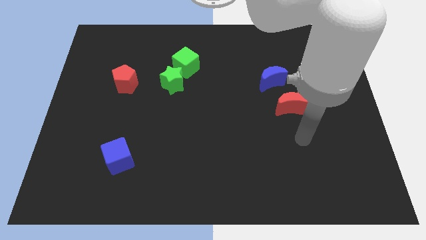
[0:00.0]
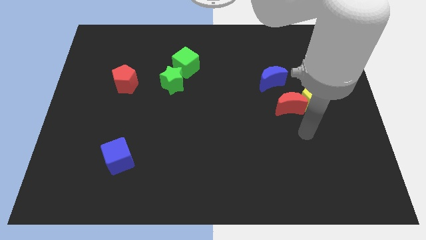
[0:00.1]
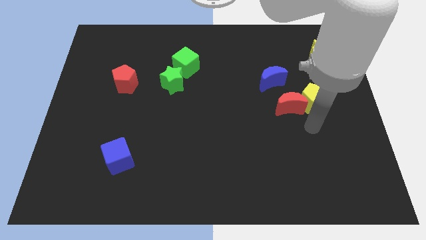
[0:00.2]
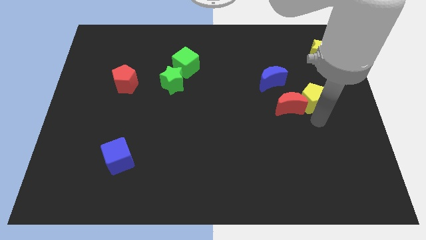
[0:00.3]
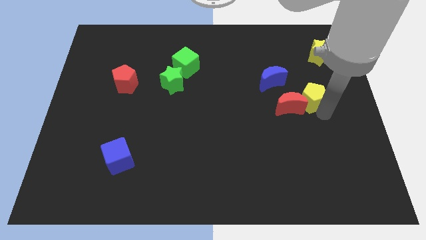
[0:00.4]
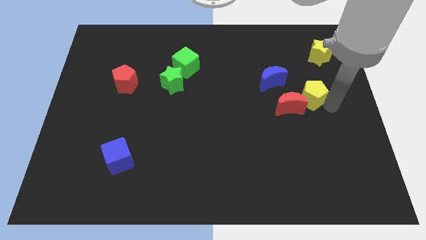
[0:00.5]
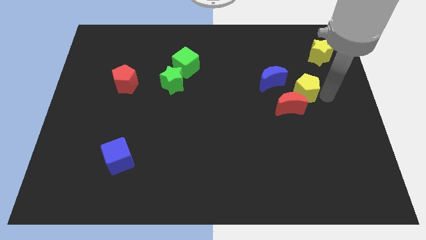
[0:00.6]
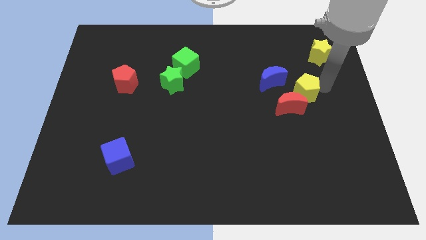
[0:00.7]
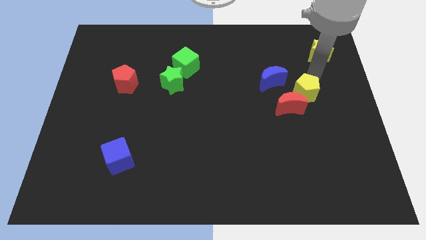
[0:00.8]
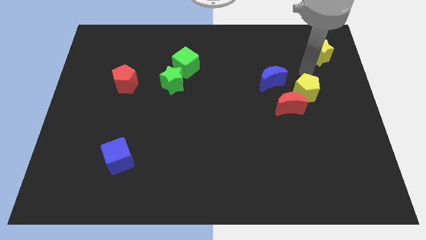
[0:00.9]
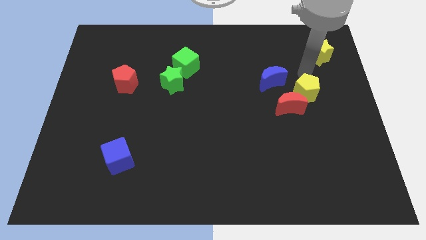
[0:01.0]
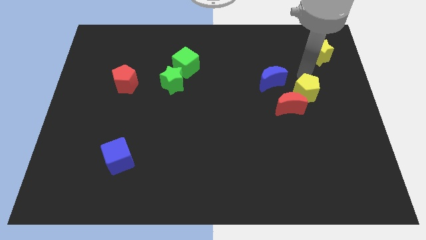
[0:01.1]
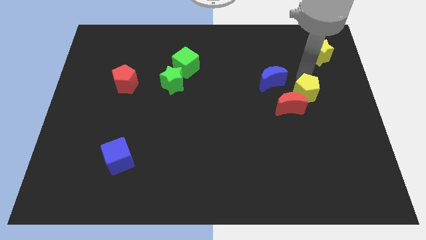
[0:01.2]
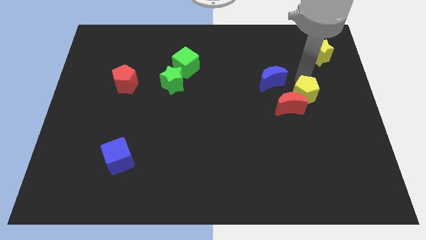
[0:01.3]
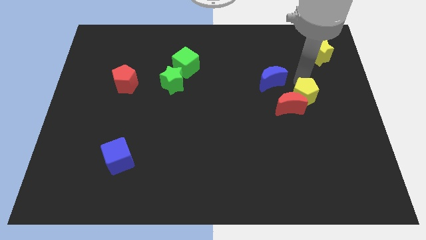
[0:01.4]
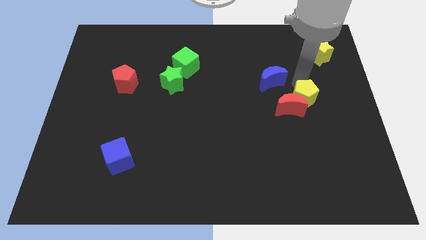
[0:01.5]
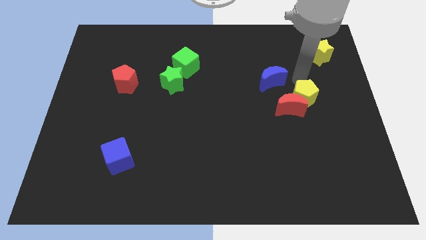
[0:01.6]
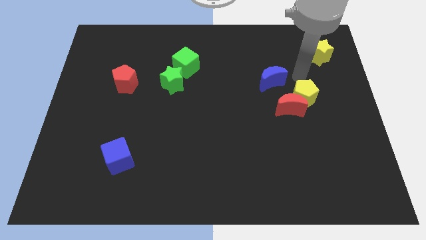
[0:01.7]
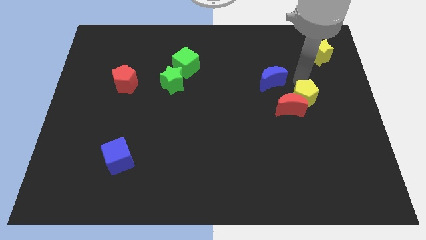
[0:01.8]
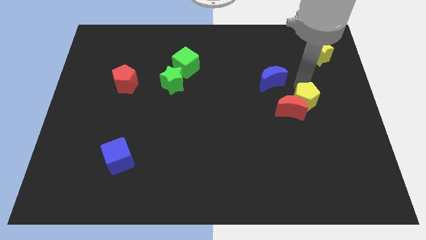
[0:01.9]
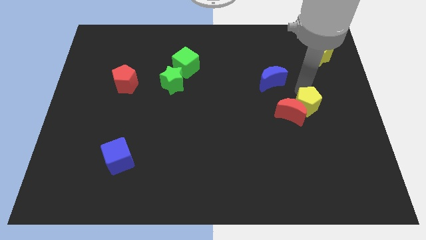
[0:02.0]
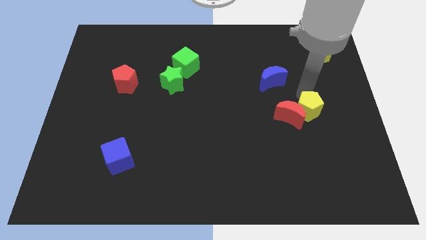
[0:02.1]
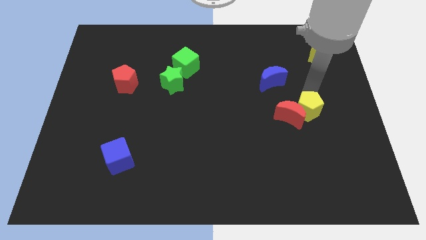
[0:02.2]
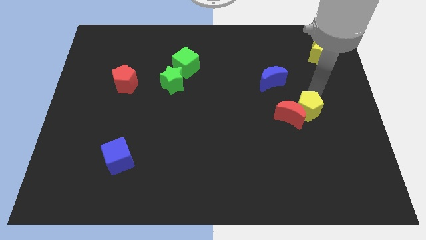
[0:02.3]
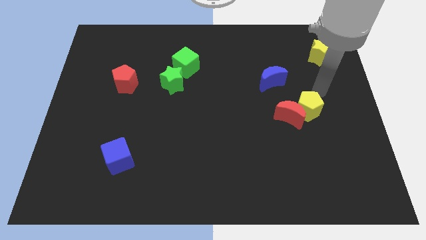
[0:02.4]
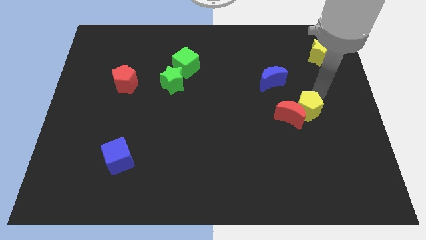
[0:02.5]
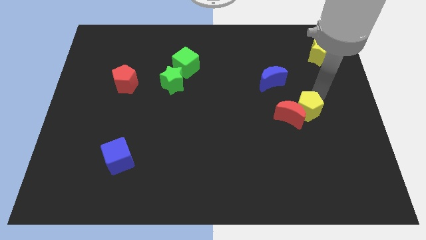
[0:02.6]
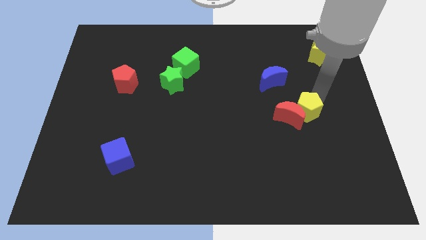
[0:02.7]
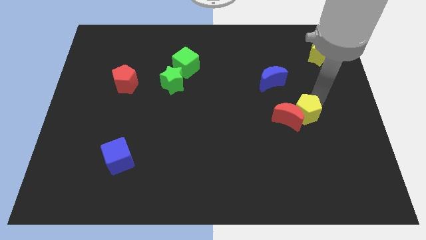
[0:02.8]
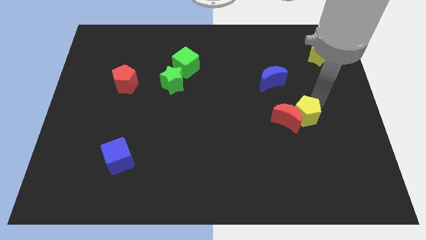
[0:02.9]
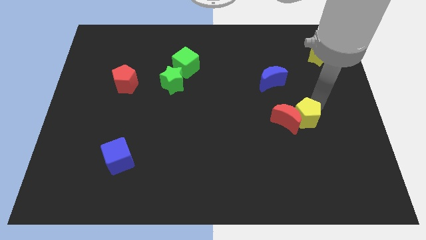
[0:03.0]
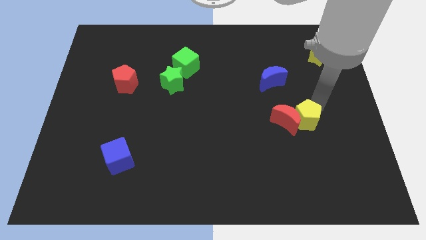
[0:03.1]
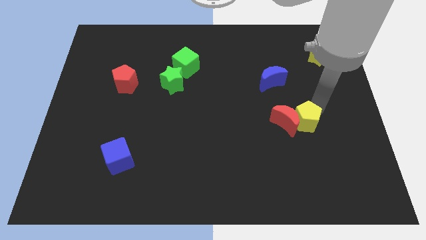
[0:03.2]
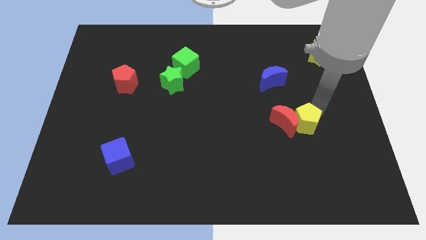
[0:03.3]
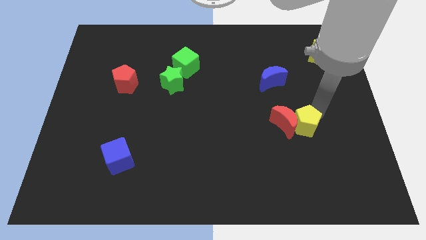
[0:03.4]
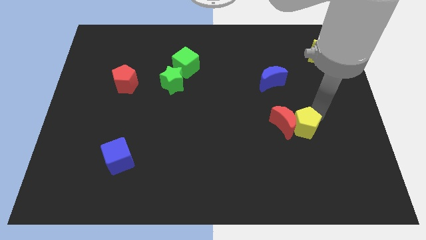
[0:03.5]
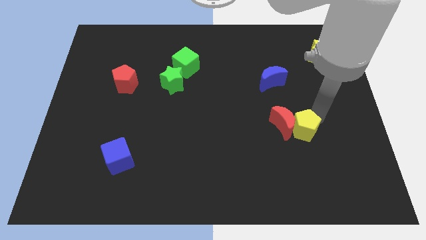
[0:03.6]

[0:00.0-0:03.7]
slide the yellow pentagon diagonally down and to the left a bit

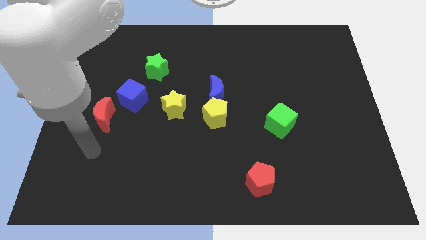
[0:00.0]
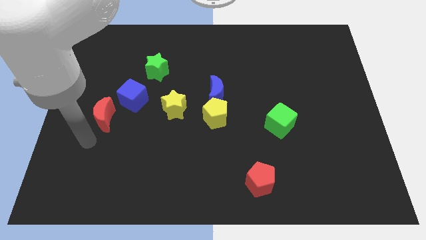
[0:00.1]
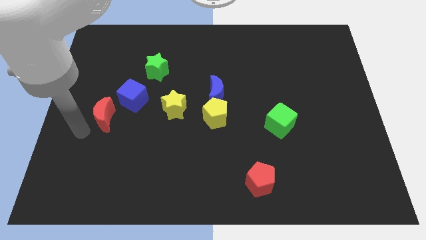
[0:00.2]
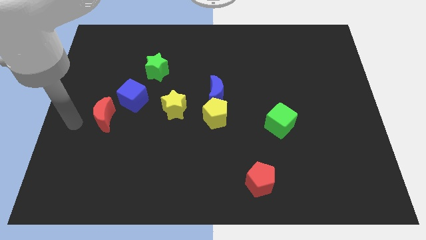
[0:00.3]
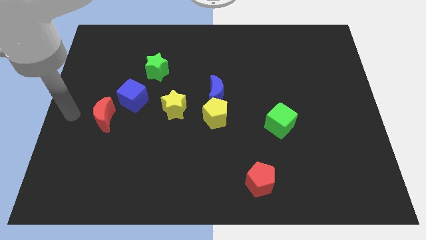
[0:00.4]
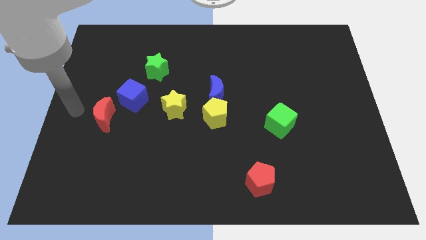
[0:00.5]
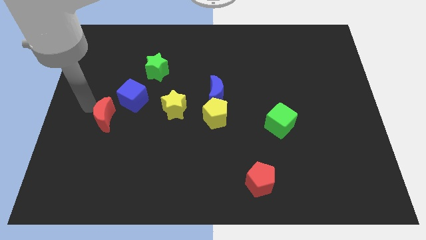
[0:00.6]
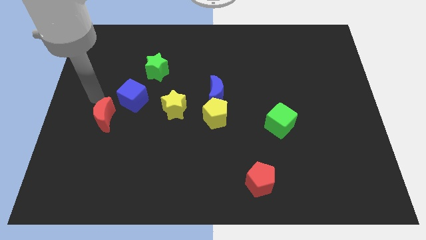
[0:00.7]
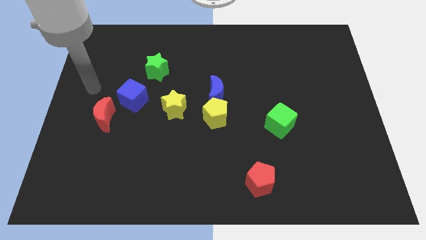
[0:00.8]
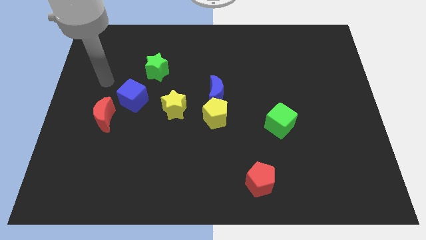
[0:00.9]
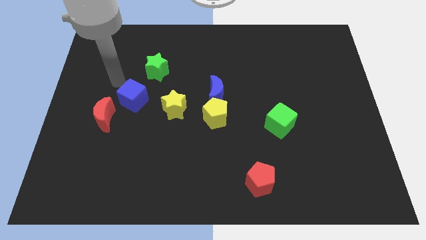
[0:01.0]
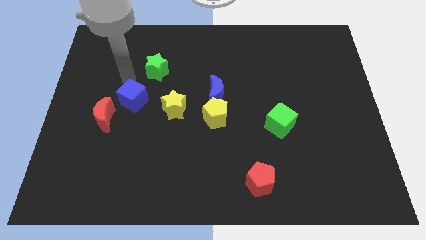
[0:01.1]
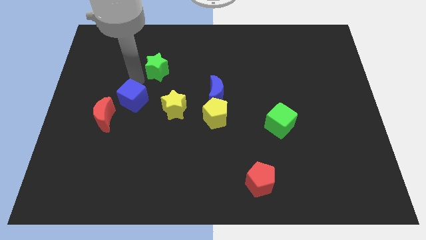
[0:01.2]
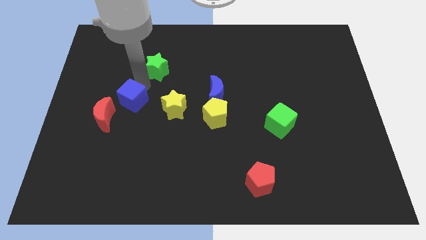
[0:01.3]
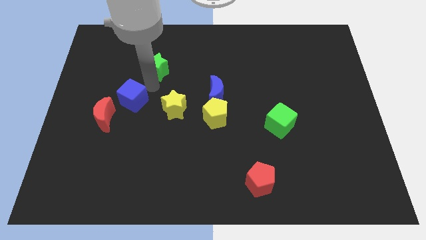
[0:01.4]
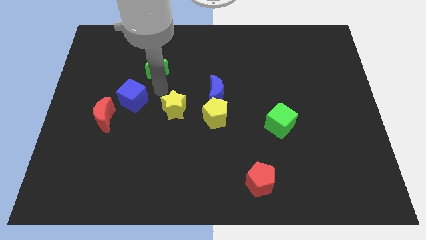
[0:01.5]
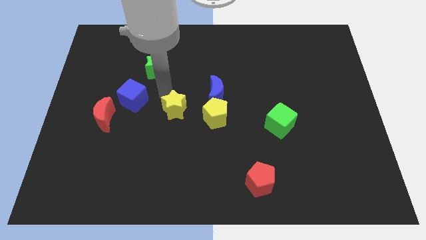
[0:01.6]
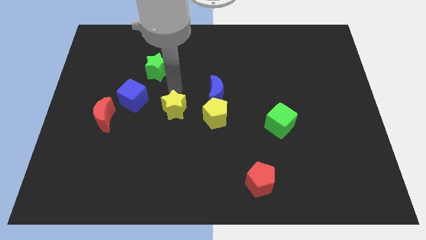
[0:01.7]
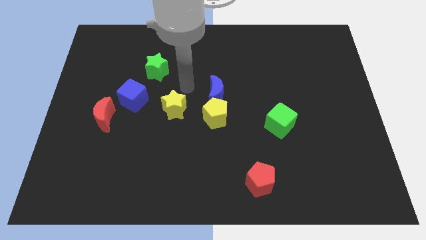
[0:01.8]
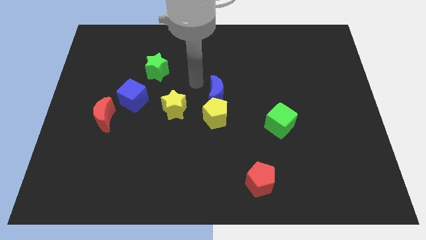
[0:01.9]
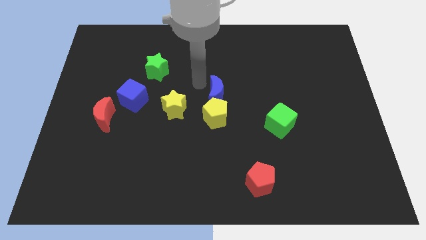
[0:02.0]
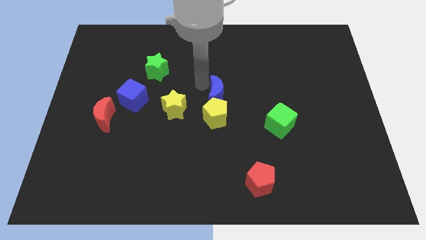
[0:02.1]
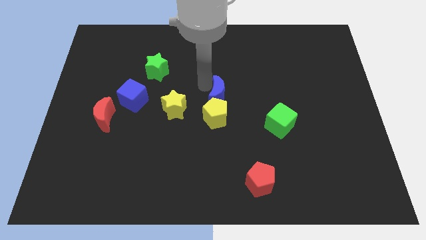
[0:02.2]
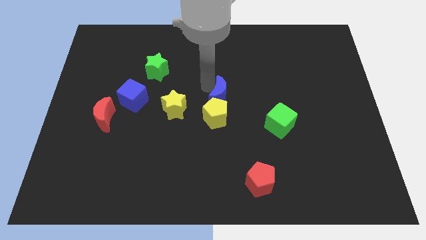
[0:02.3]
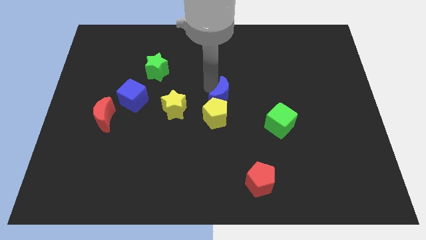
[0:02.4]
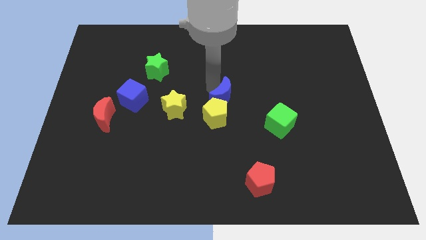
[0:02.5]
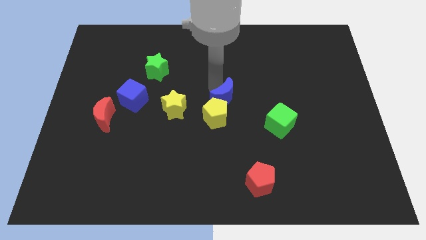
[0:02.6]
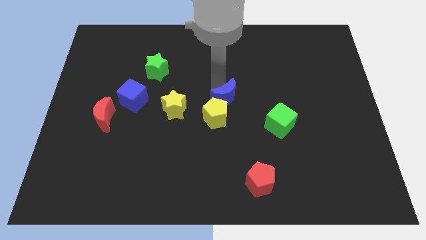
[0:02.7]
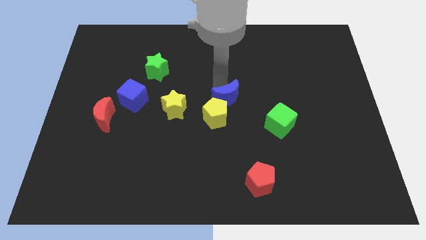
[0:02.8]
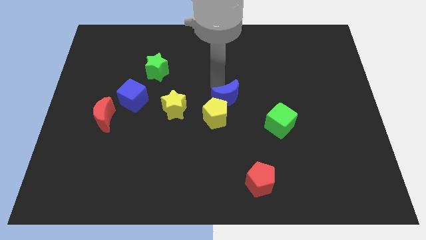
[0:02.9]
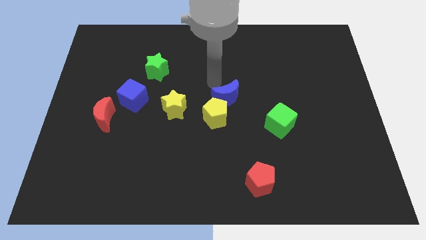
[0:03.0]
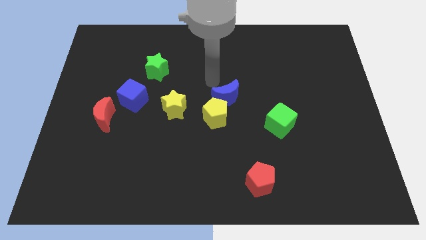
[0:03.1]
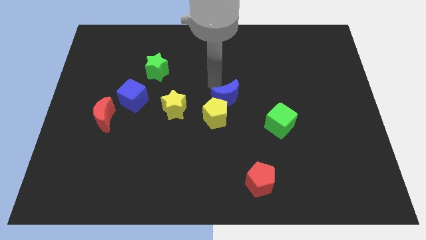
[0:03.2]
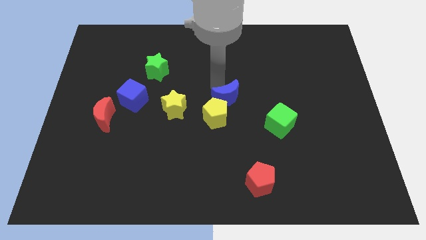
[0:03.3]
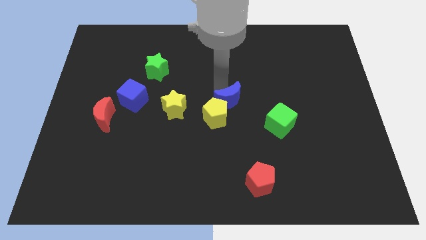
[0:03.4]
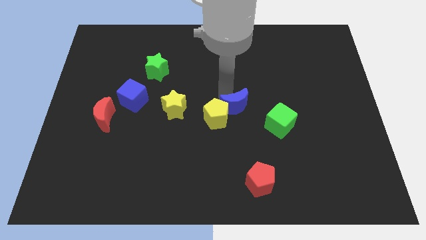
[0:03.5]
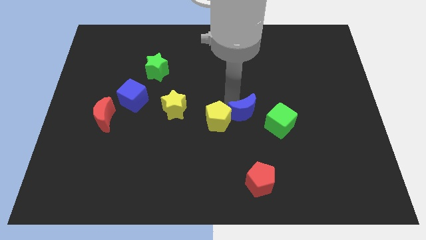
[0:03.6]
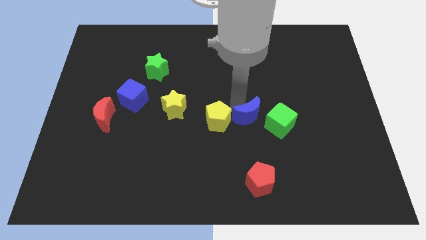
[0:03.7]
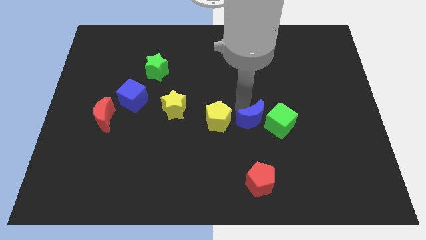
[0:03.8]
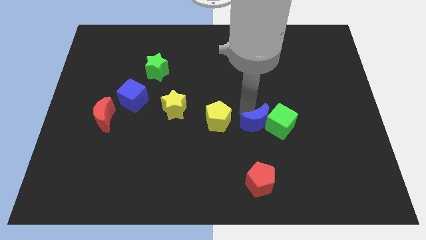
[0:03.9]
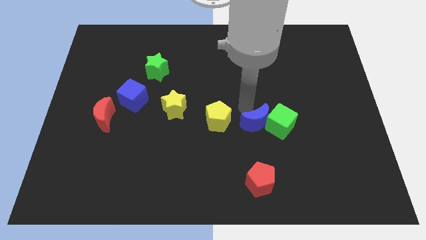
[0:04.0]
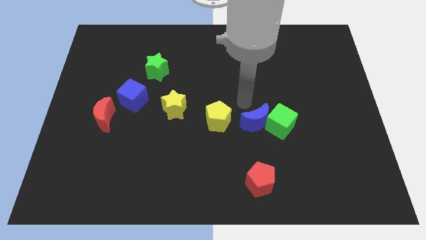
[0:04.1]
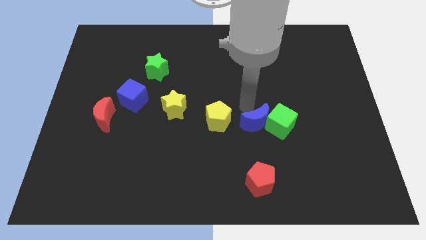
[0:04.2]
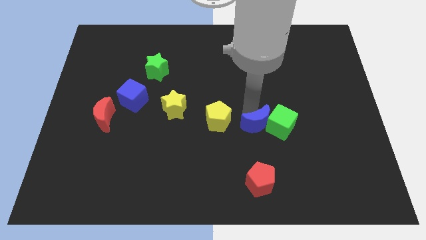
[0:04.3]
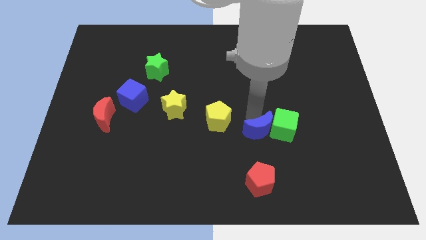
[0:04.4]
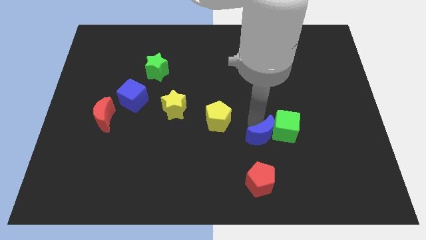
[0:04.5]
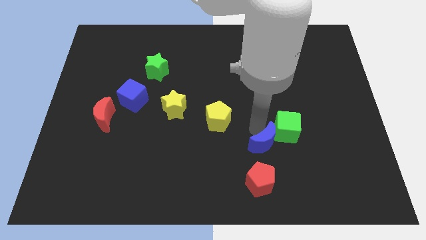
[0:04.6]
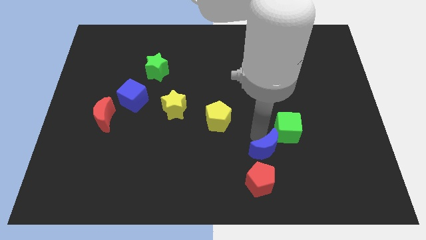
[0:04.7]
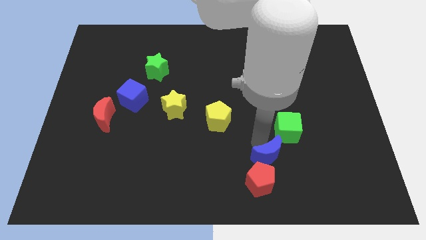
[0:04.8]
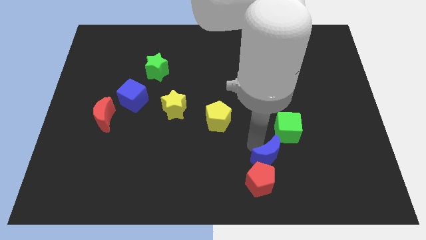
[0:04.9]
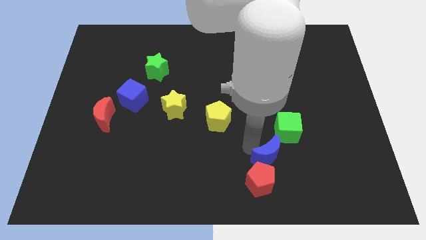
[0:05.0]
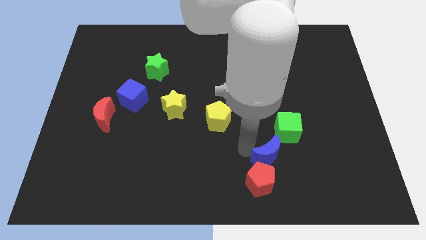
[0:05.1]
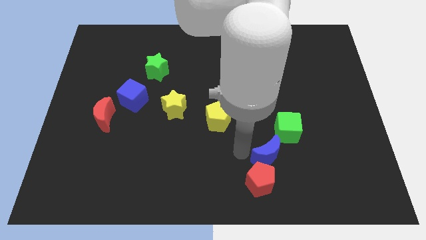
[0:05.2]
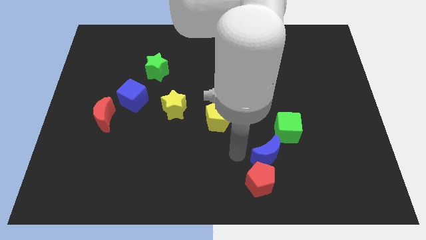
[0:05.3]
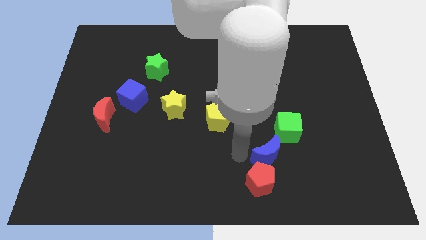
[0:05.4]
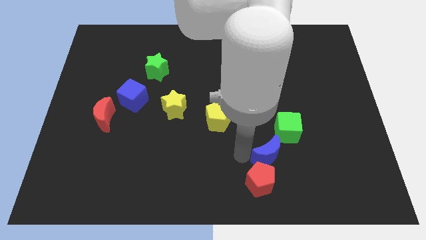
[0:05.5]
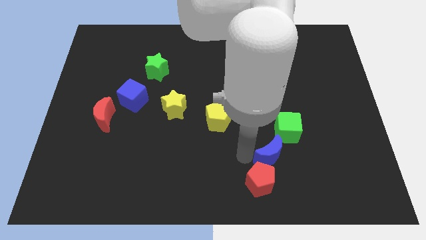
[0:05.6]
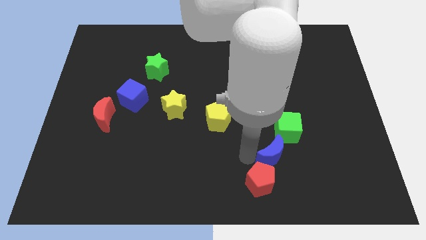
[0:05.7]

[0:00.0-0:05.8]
move the blue moon diagonally down and to the right
